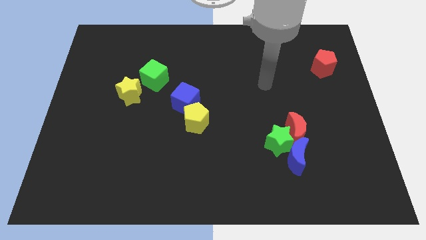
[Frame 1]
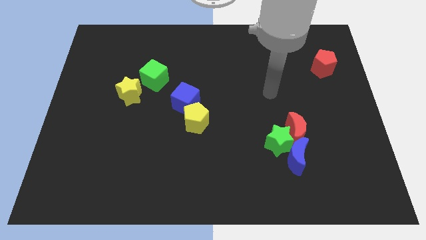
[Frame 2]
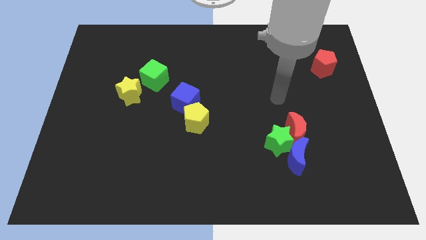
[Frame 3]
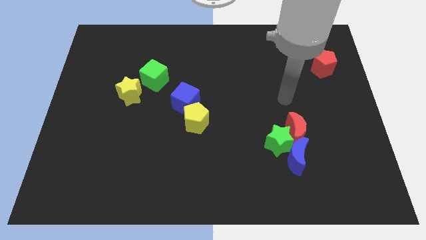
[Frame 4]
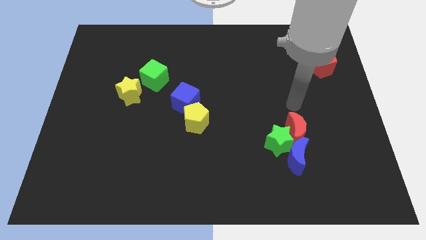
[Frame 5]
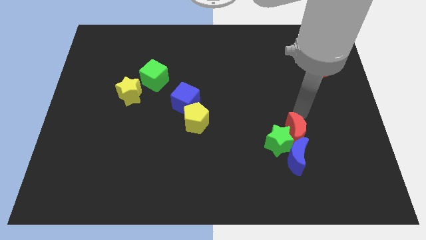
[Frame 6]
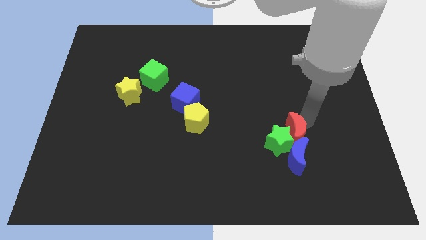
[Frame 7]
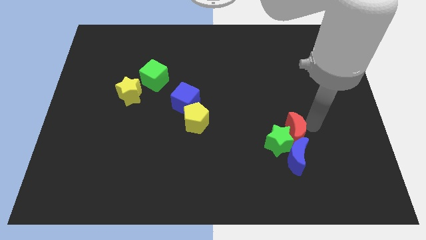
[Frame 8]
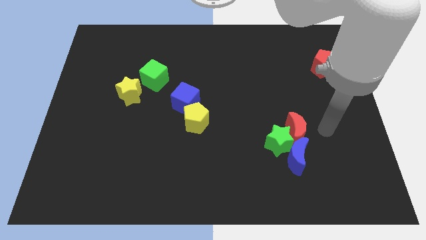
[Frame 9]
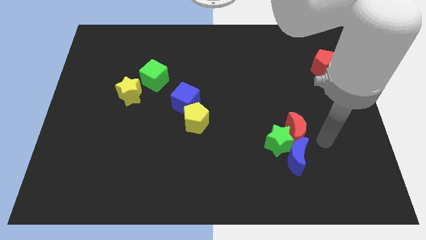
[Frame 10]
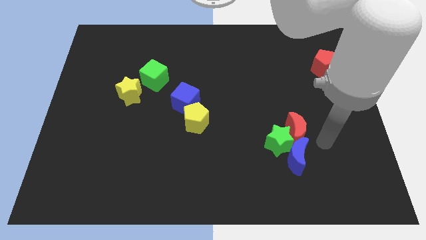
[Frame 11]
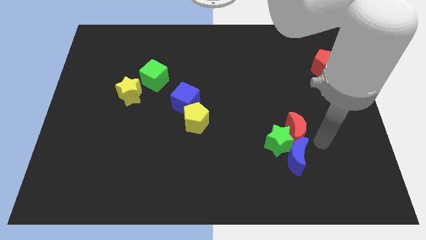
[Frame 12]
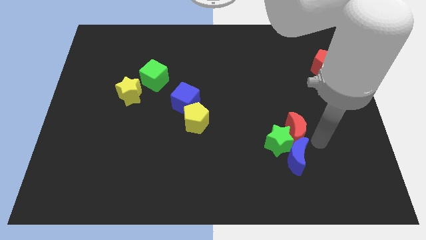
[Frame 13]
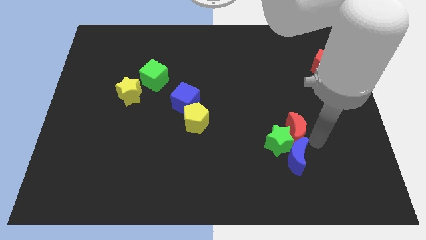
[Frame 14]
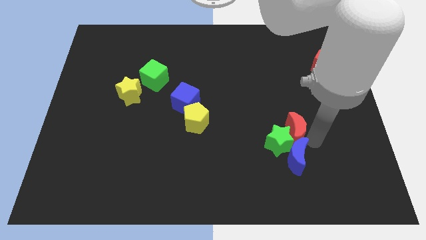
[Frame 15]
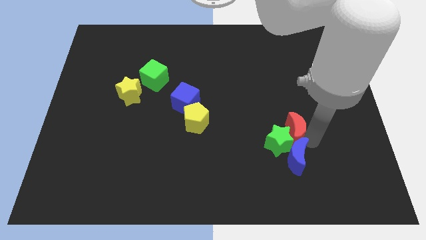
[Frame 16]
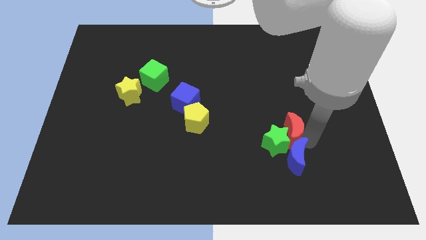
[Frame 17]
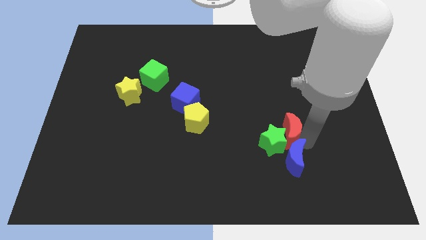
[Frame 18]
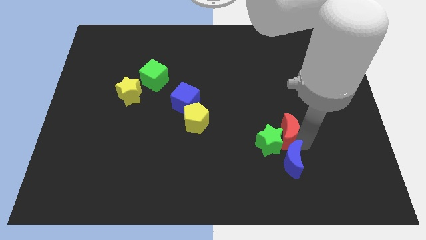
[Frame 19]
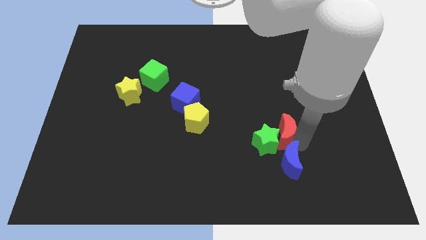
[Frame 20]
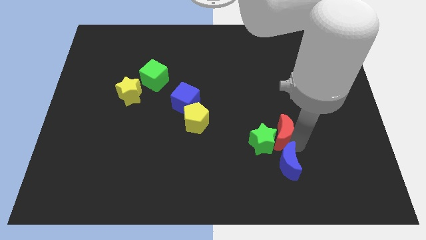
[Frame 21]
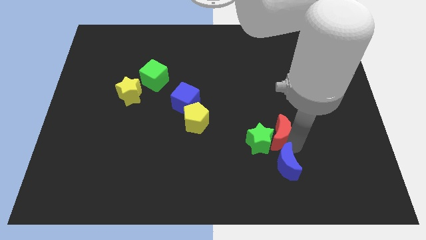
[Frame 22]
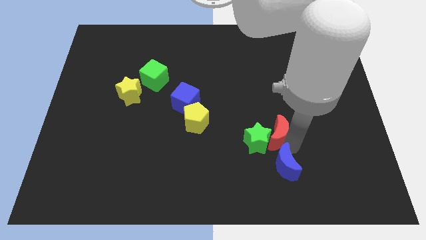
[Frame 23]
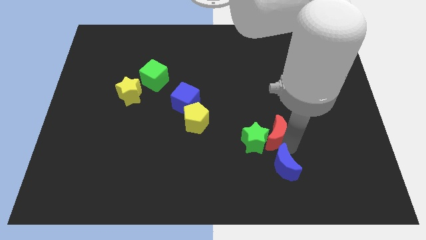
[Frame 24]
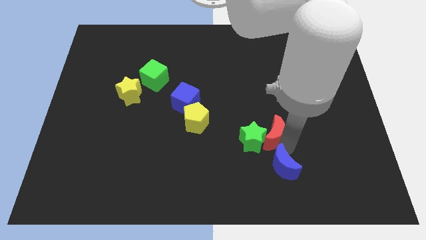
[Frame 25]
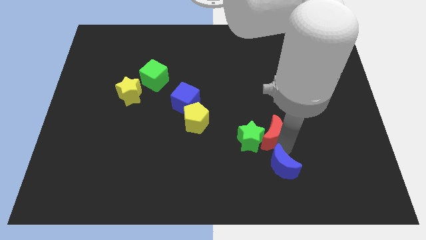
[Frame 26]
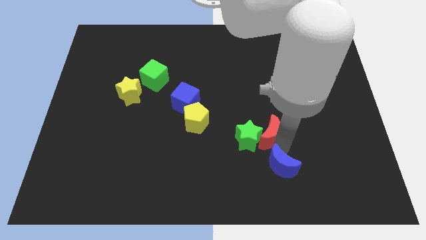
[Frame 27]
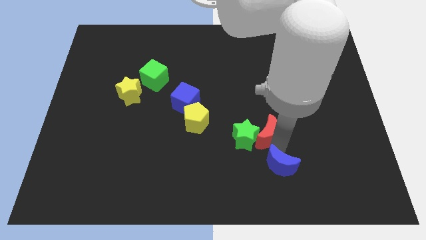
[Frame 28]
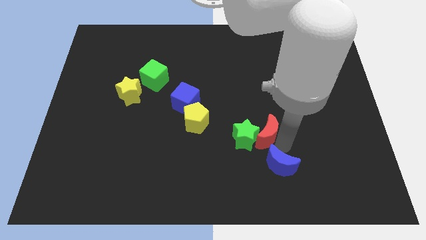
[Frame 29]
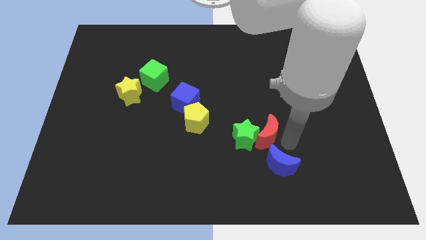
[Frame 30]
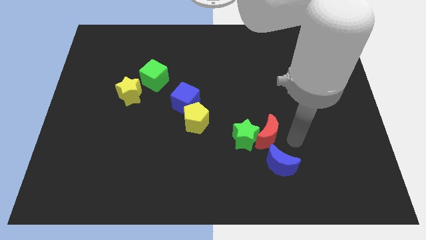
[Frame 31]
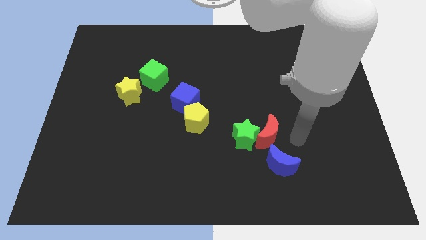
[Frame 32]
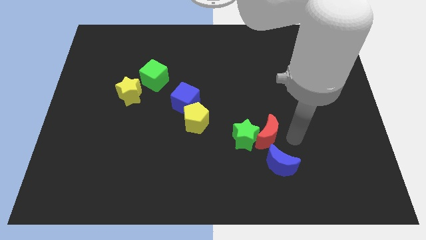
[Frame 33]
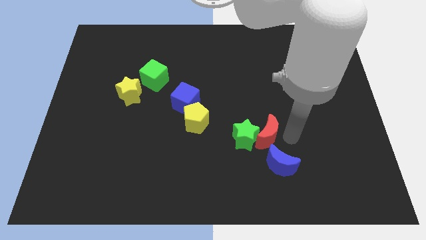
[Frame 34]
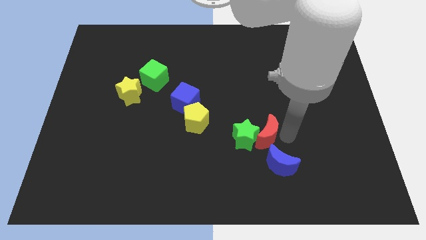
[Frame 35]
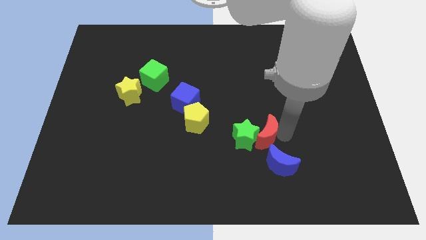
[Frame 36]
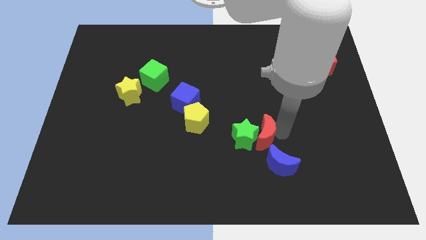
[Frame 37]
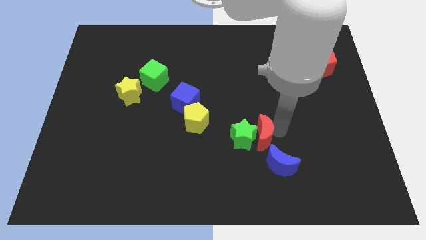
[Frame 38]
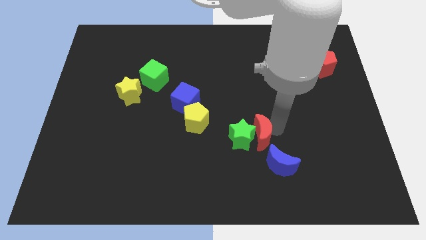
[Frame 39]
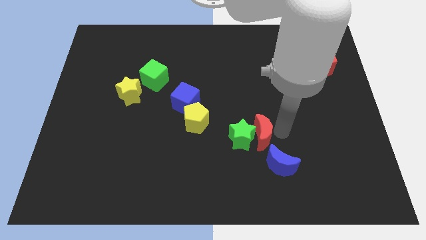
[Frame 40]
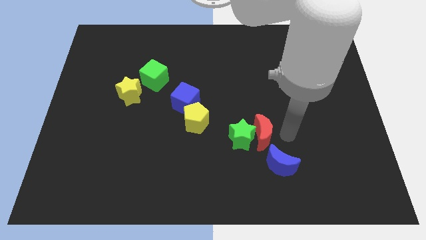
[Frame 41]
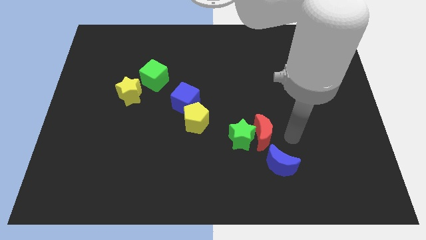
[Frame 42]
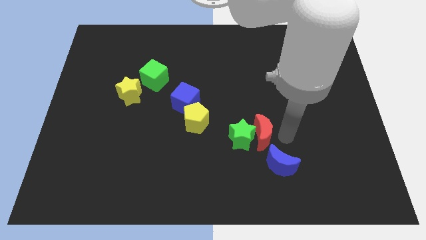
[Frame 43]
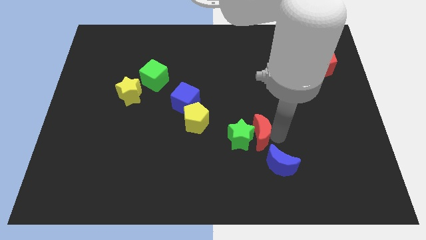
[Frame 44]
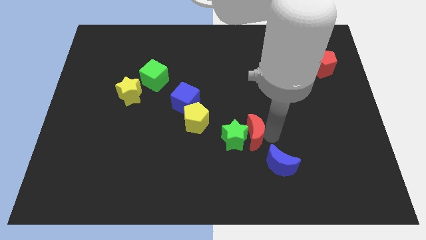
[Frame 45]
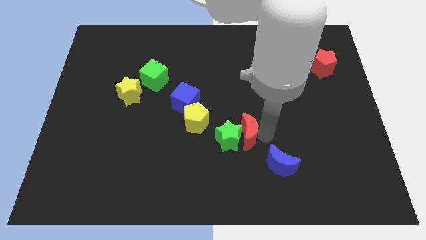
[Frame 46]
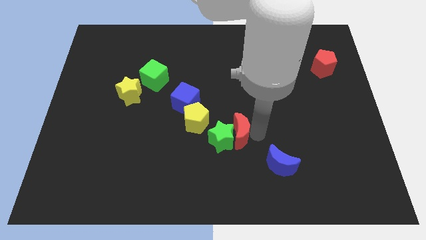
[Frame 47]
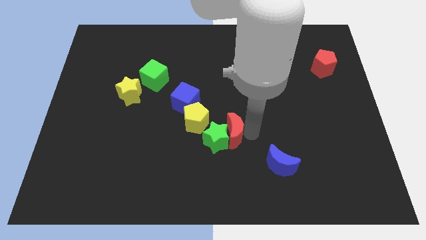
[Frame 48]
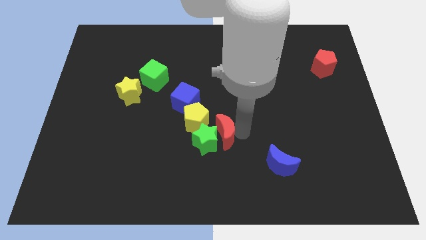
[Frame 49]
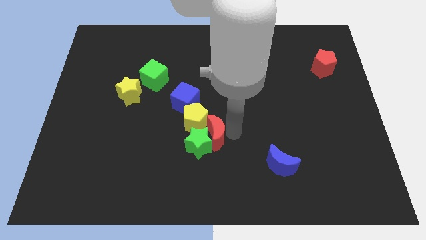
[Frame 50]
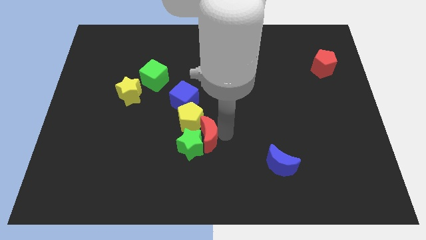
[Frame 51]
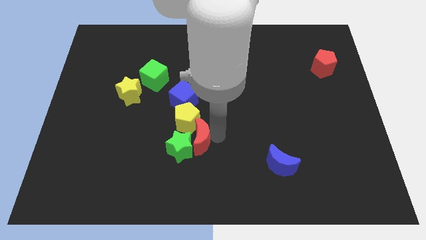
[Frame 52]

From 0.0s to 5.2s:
slide the red moon below the blue cube
